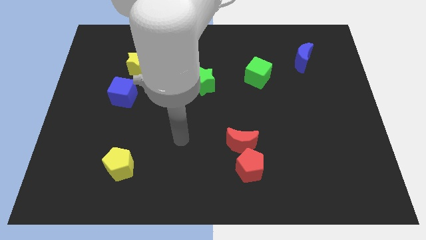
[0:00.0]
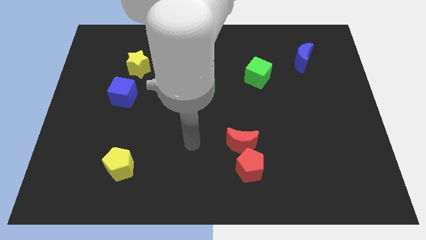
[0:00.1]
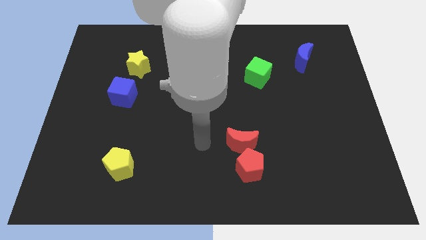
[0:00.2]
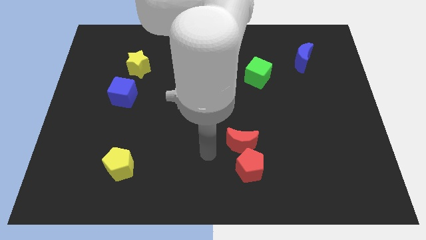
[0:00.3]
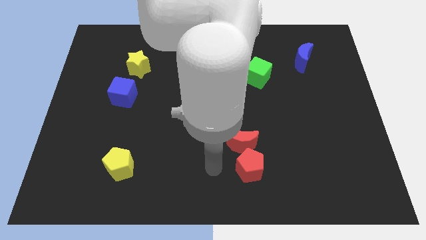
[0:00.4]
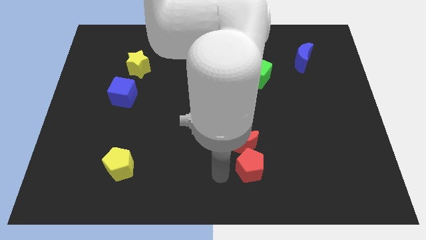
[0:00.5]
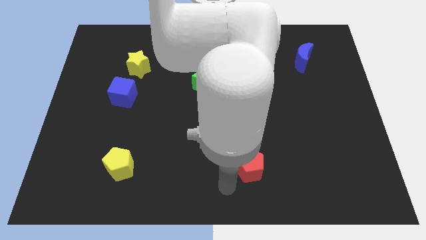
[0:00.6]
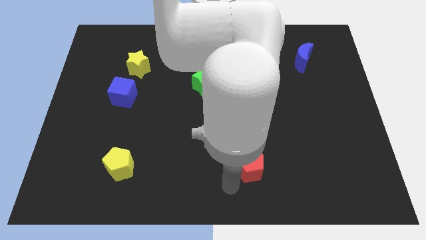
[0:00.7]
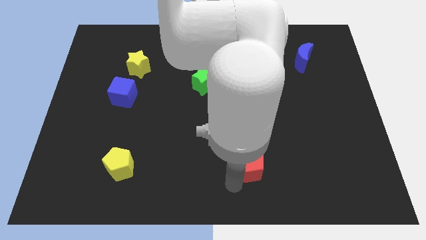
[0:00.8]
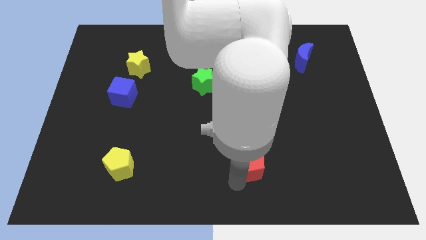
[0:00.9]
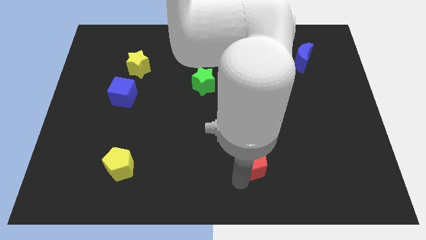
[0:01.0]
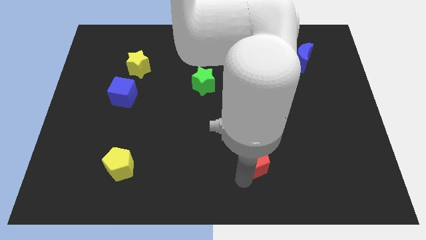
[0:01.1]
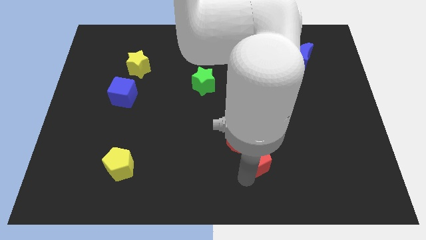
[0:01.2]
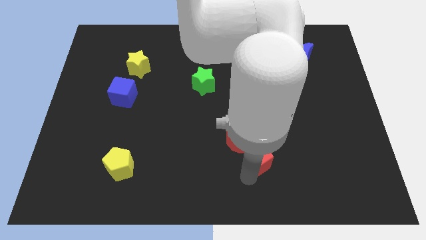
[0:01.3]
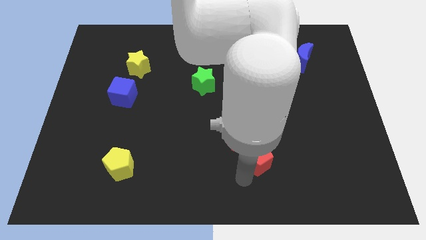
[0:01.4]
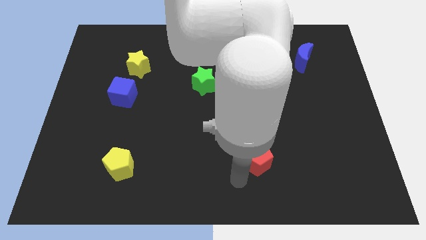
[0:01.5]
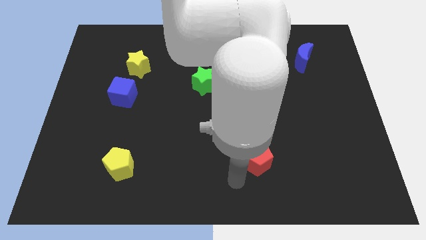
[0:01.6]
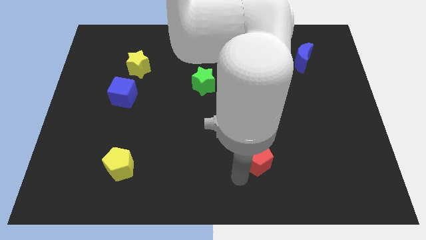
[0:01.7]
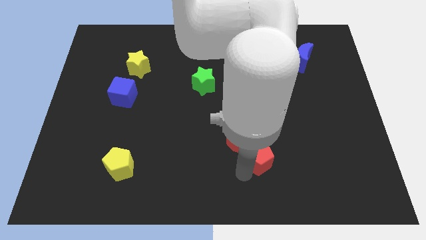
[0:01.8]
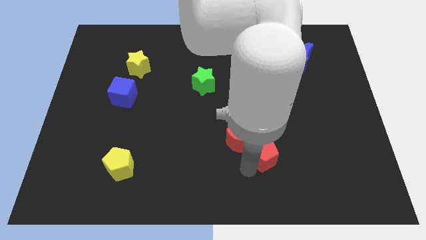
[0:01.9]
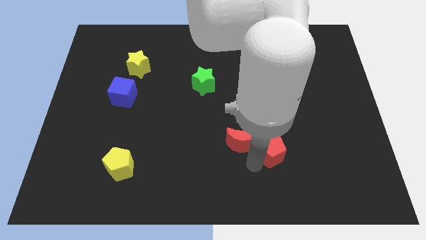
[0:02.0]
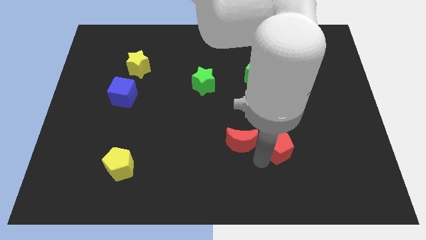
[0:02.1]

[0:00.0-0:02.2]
push the red pentagon diagonally upwards and right somewhat

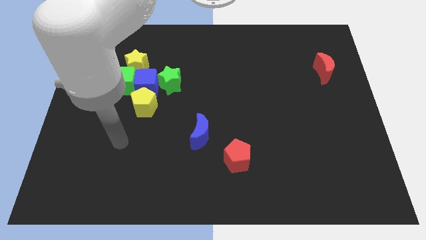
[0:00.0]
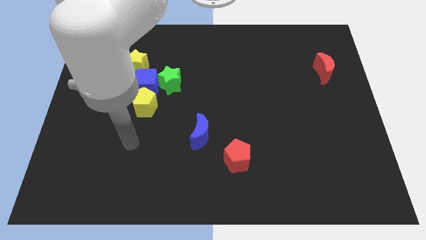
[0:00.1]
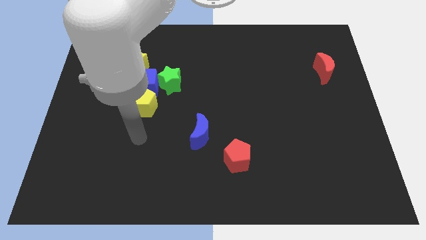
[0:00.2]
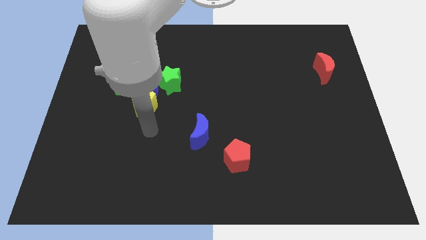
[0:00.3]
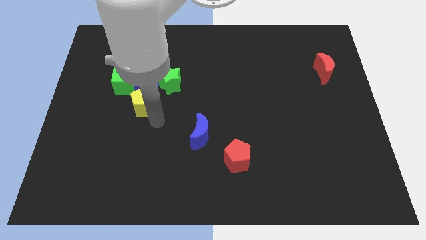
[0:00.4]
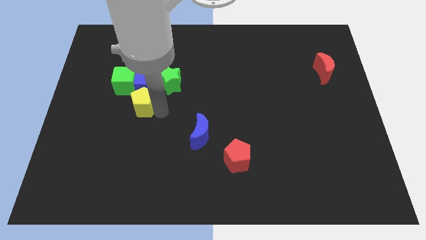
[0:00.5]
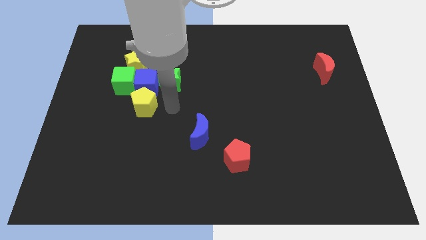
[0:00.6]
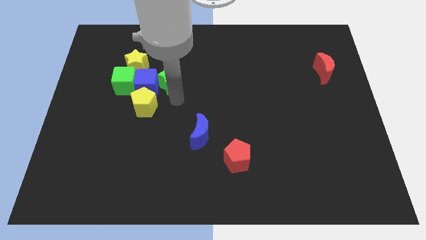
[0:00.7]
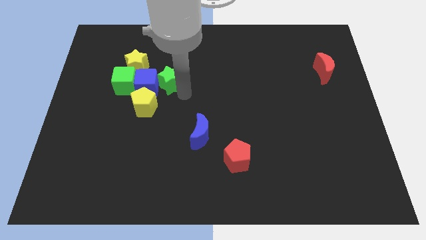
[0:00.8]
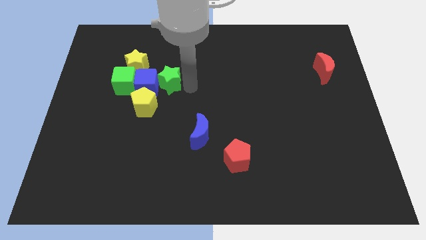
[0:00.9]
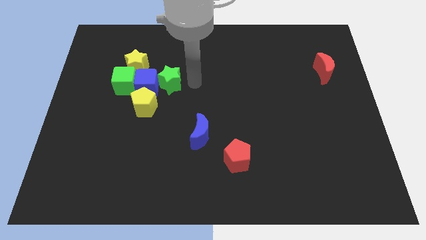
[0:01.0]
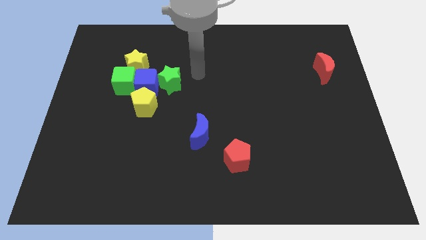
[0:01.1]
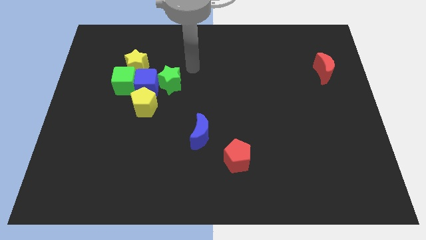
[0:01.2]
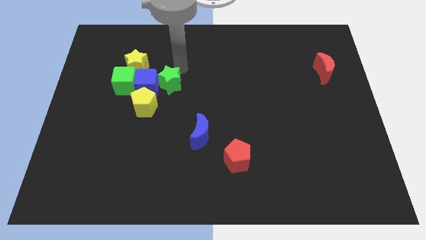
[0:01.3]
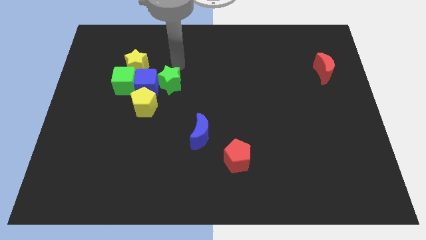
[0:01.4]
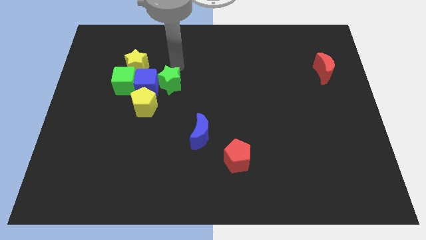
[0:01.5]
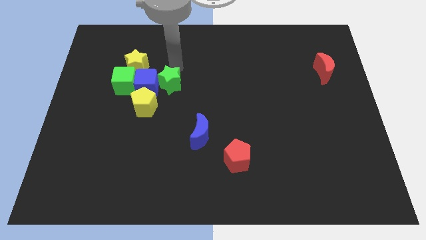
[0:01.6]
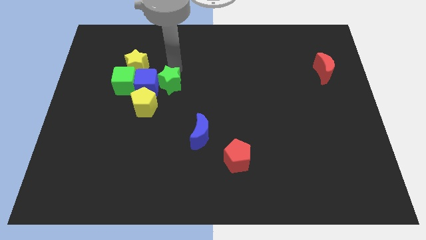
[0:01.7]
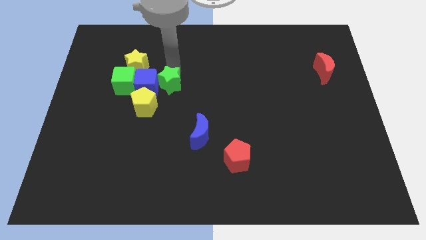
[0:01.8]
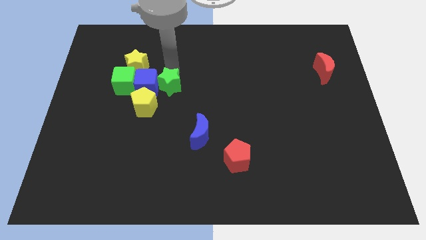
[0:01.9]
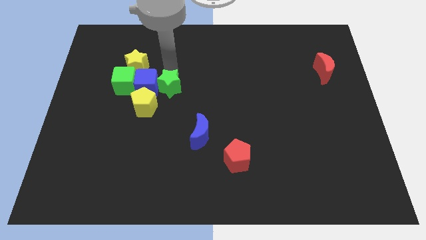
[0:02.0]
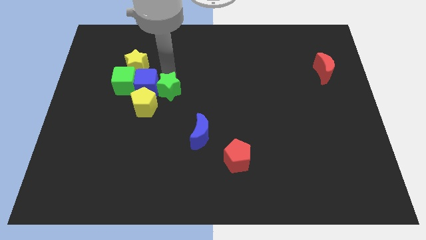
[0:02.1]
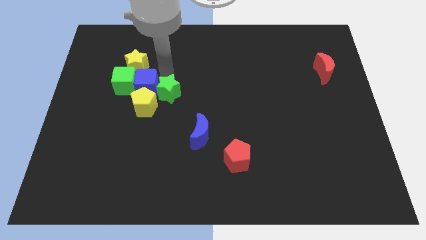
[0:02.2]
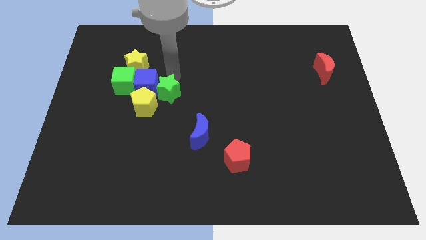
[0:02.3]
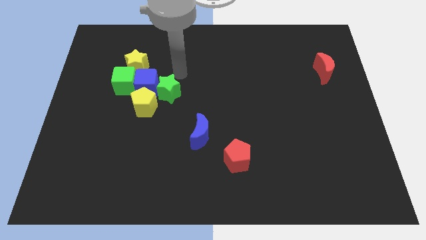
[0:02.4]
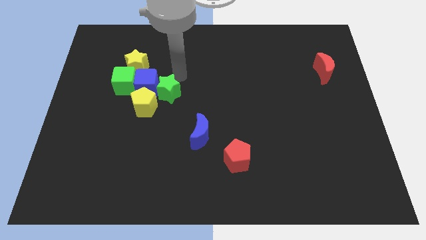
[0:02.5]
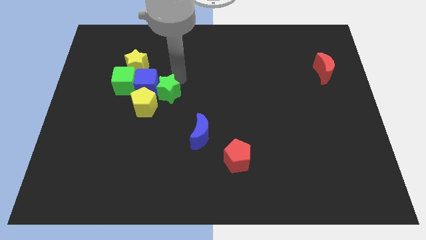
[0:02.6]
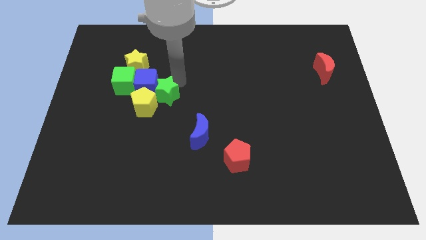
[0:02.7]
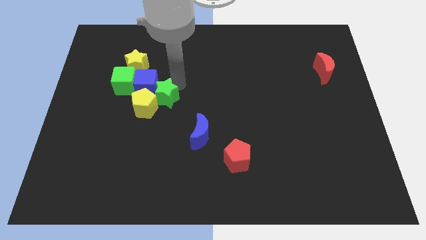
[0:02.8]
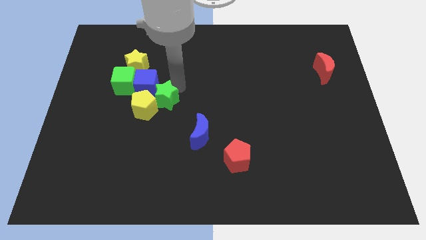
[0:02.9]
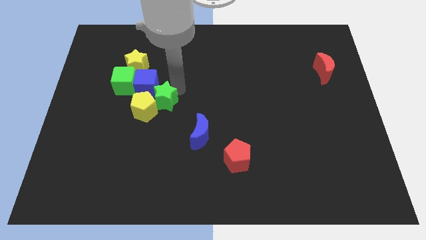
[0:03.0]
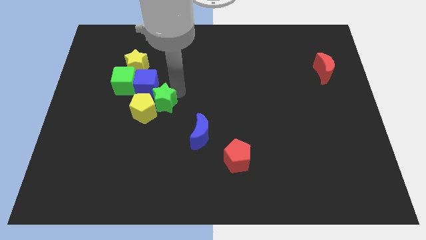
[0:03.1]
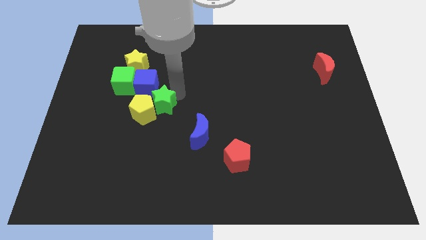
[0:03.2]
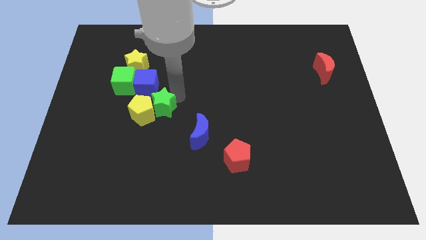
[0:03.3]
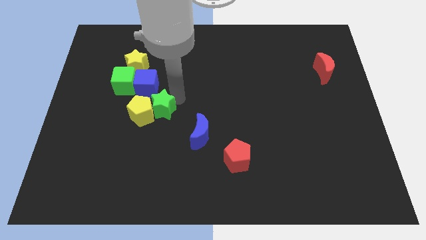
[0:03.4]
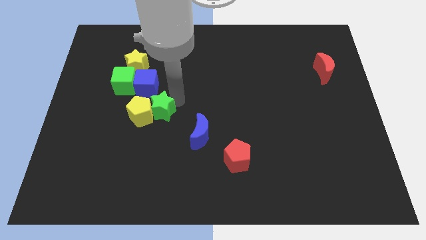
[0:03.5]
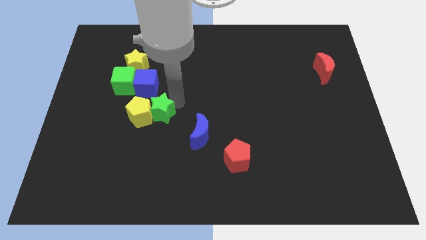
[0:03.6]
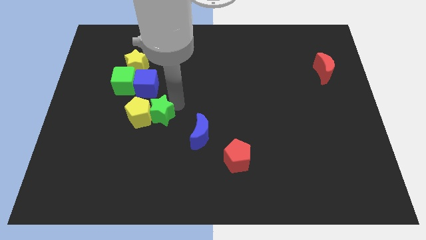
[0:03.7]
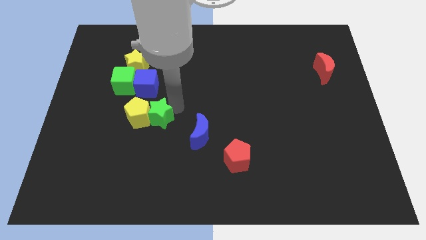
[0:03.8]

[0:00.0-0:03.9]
slide the green star a little down and to the left diagonally

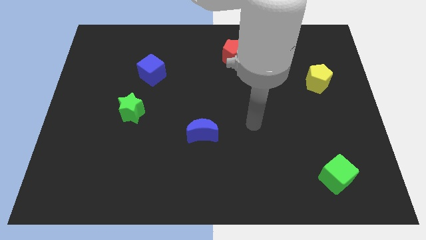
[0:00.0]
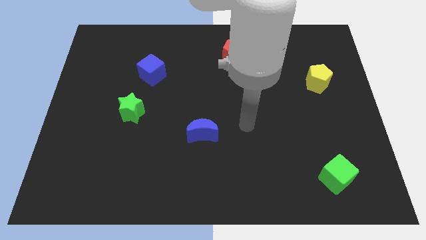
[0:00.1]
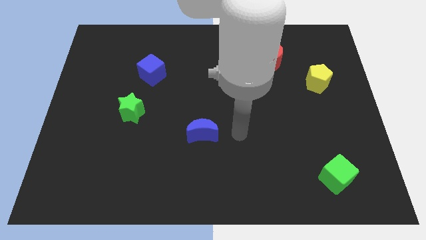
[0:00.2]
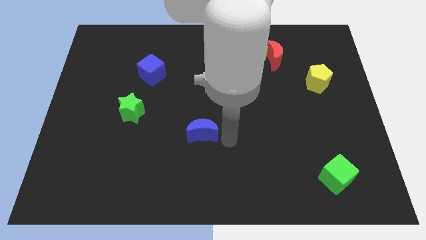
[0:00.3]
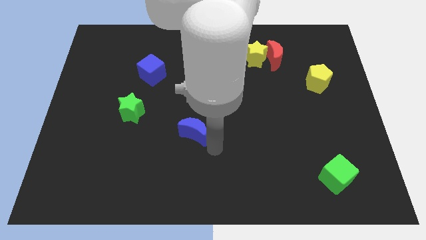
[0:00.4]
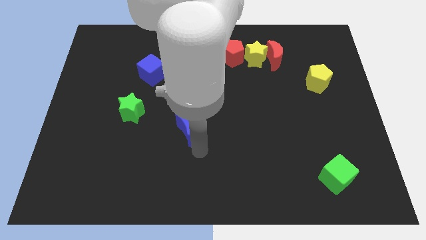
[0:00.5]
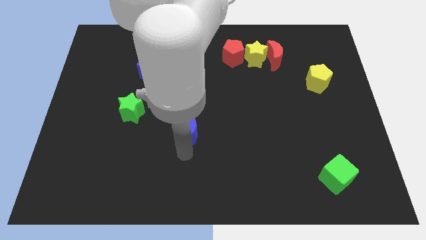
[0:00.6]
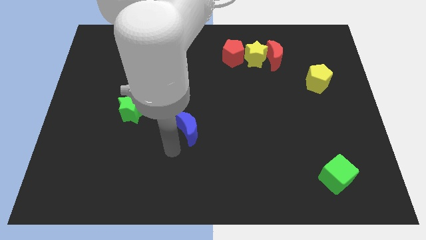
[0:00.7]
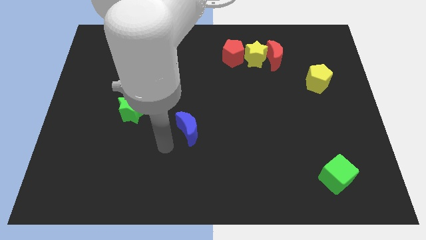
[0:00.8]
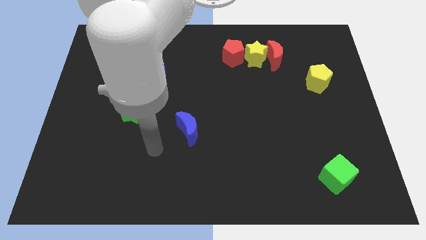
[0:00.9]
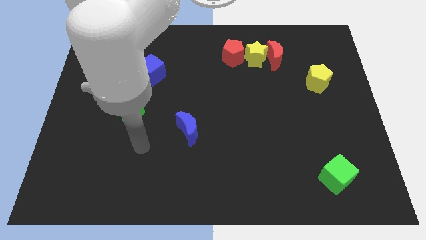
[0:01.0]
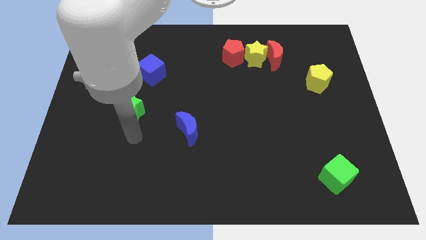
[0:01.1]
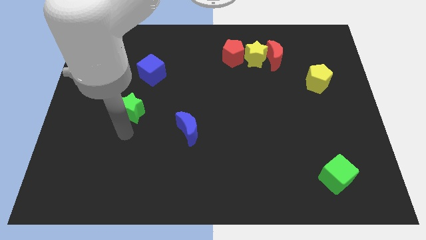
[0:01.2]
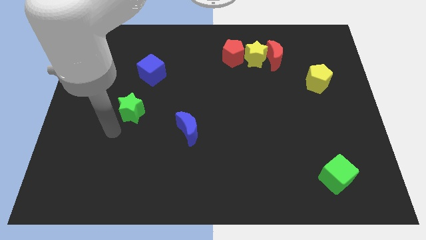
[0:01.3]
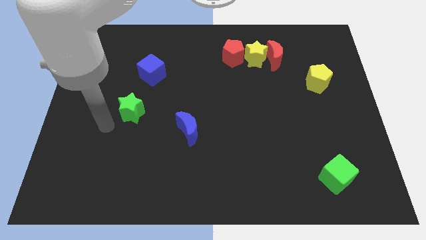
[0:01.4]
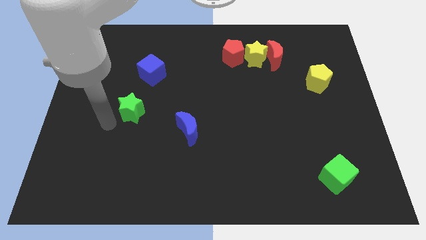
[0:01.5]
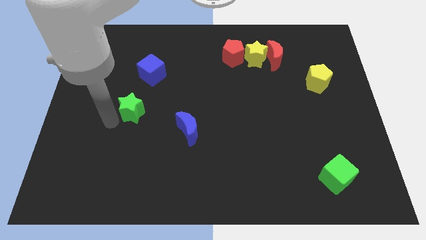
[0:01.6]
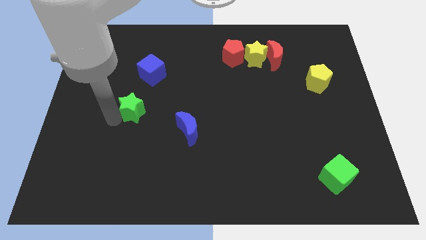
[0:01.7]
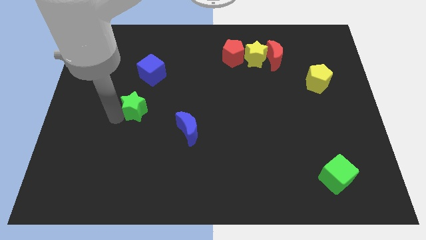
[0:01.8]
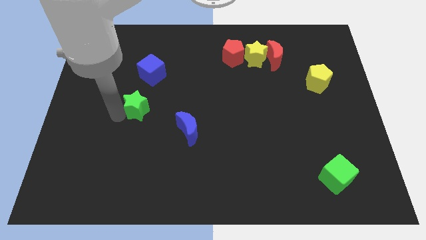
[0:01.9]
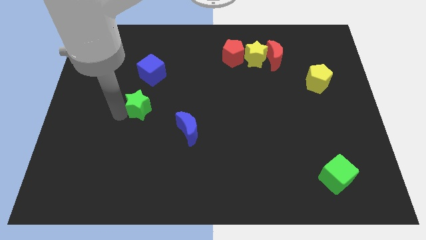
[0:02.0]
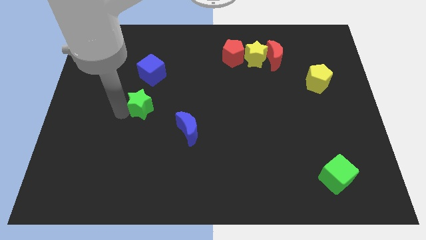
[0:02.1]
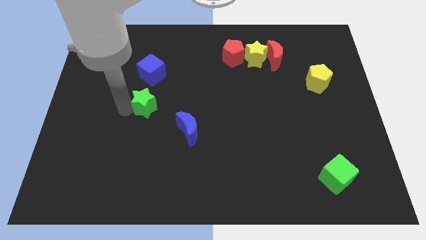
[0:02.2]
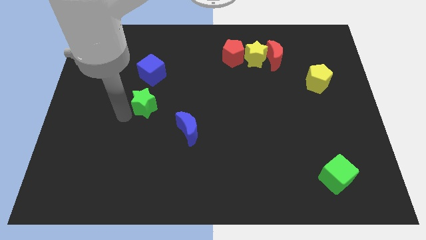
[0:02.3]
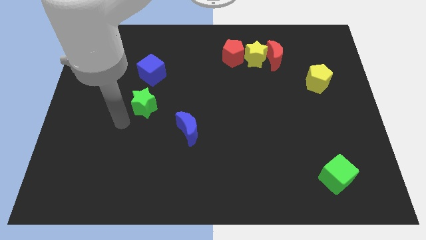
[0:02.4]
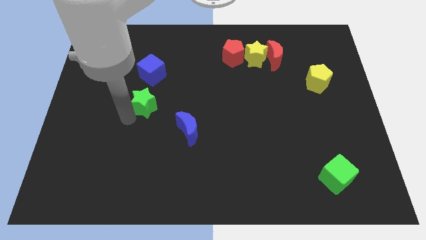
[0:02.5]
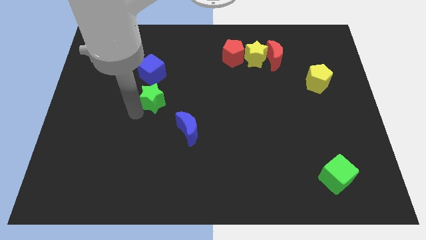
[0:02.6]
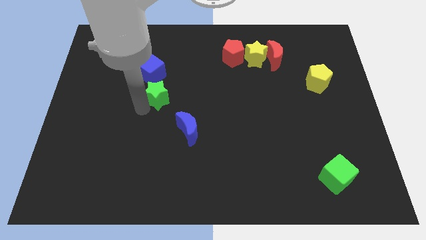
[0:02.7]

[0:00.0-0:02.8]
move the green star diagonally upwards and right a little
